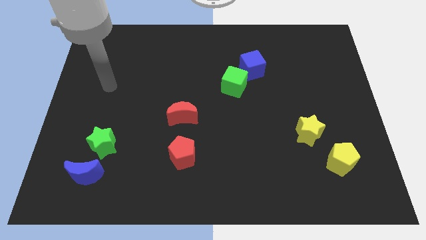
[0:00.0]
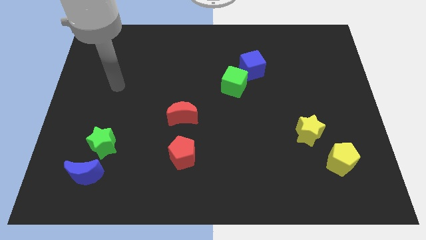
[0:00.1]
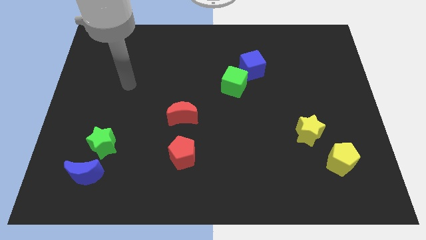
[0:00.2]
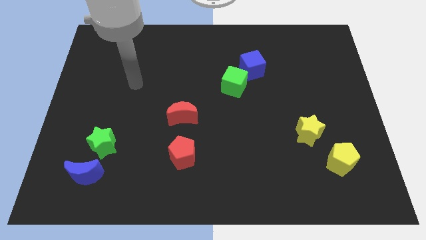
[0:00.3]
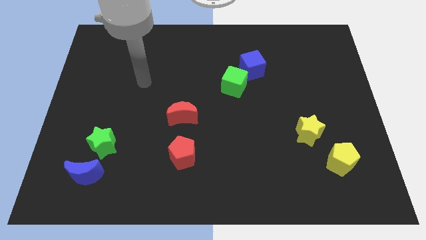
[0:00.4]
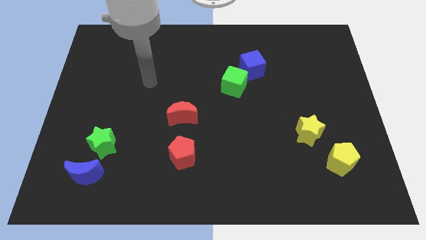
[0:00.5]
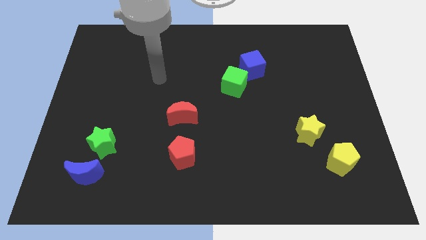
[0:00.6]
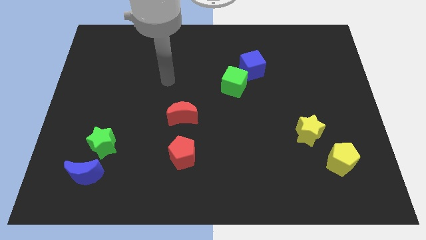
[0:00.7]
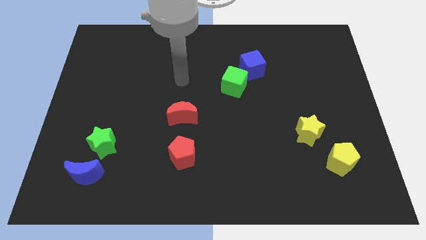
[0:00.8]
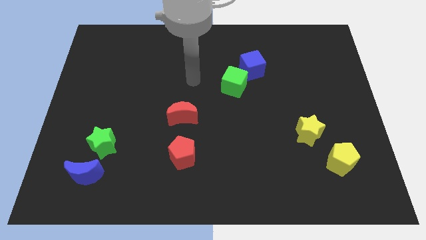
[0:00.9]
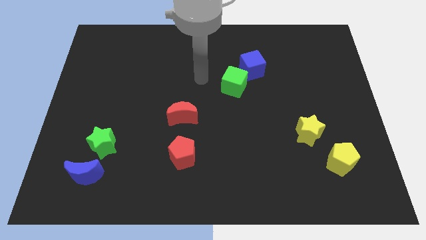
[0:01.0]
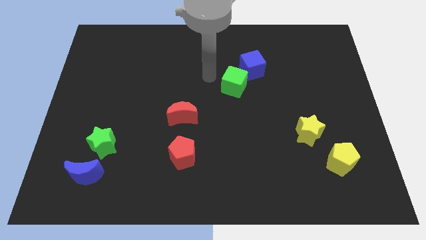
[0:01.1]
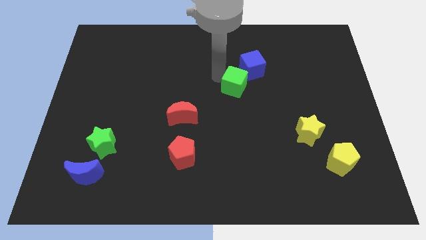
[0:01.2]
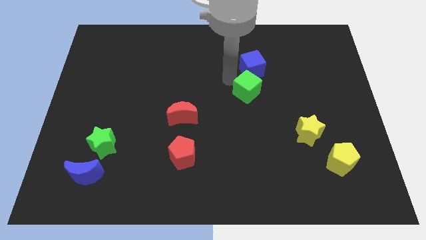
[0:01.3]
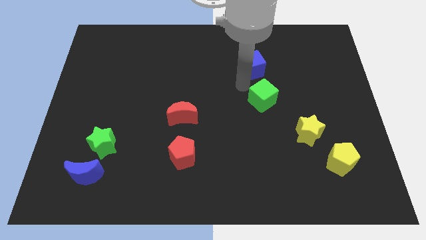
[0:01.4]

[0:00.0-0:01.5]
pull the blue cube apart from the green cube

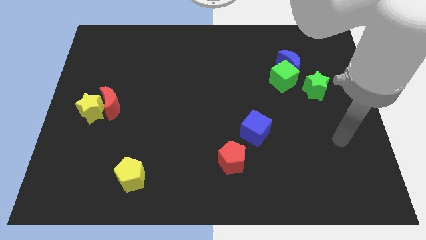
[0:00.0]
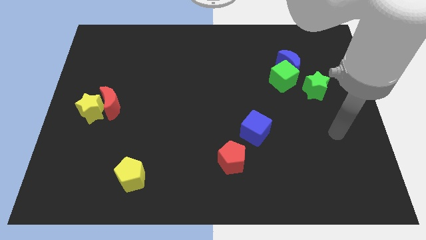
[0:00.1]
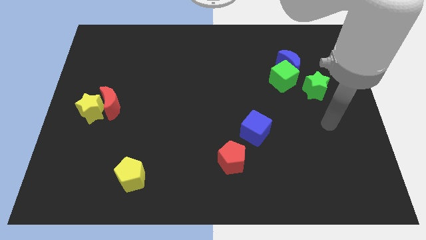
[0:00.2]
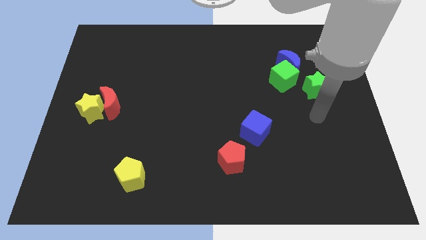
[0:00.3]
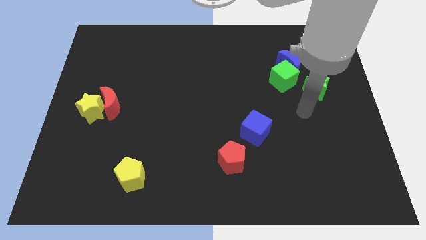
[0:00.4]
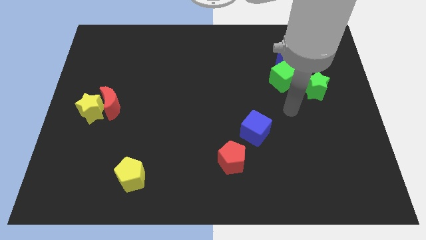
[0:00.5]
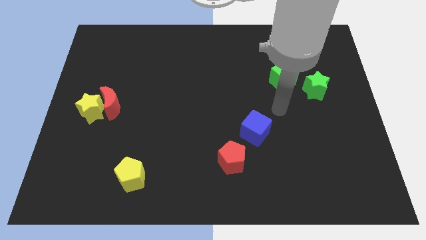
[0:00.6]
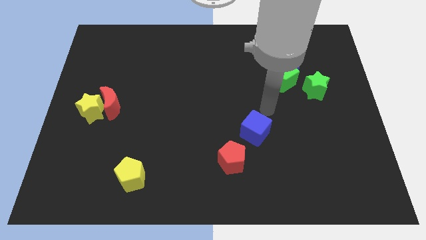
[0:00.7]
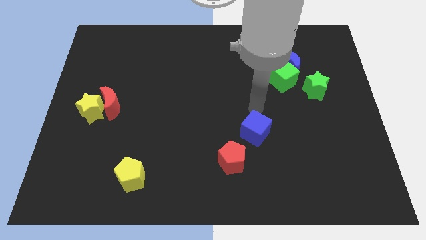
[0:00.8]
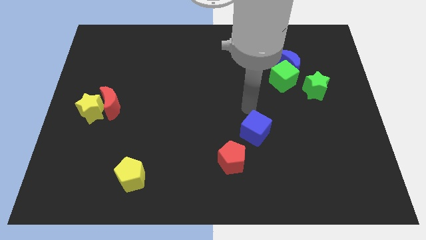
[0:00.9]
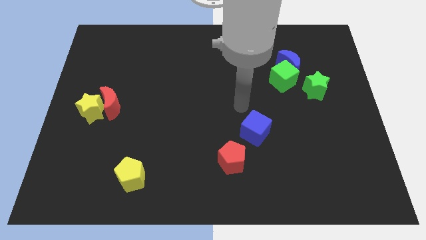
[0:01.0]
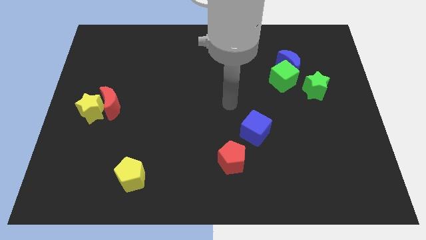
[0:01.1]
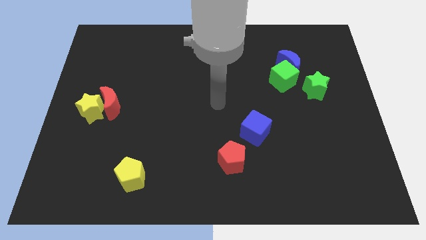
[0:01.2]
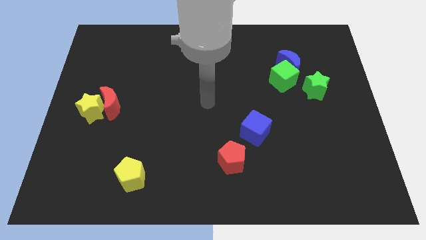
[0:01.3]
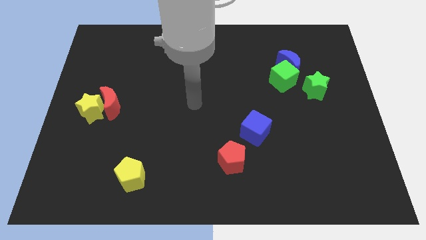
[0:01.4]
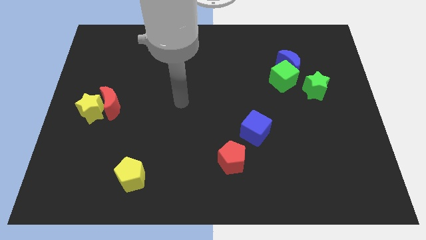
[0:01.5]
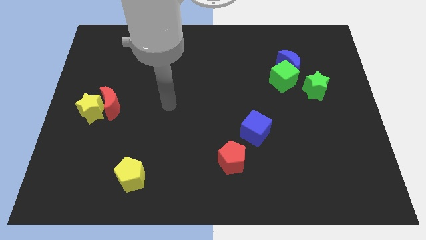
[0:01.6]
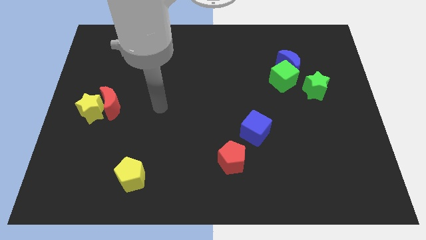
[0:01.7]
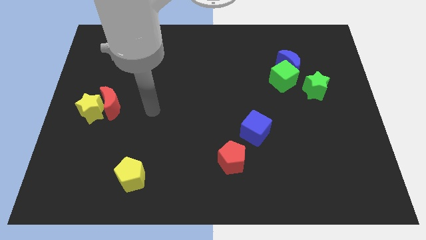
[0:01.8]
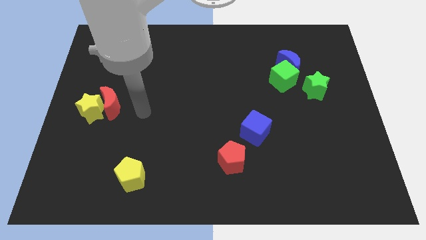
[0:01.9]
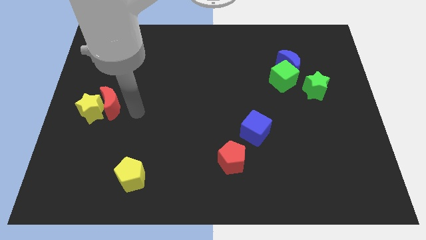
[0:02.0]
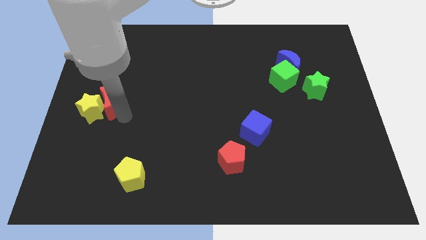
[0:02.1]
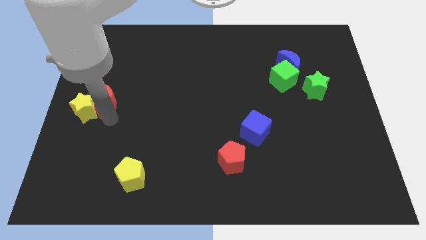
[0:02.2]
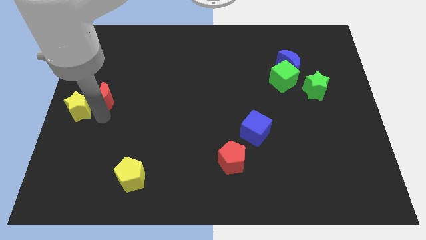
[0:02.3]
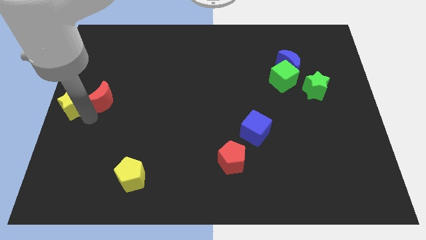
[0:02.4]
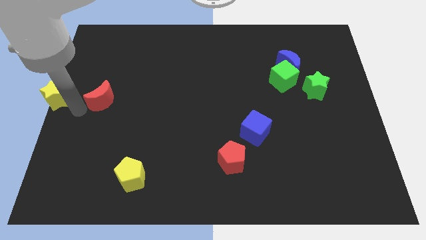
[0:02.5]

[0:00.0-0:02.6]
move the red moon away from the yellow star

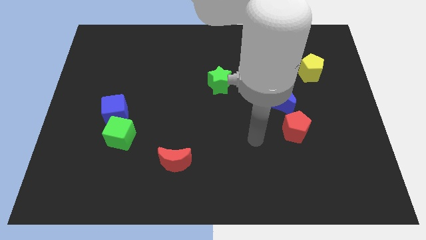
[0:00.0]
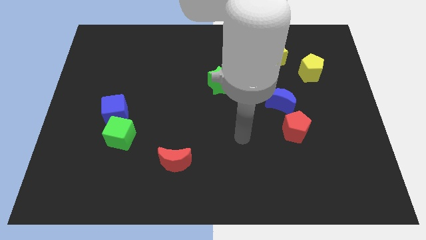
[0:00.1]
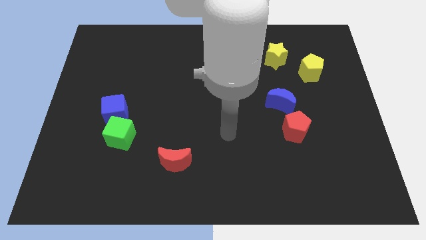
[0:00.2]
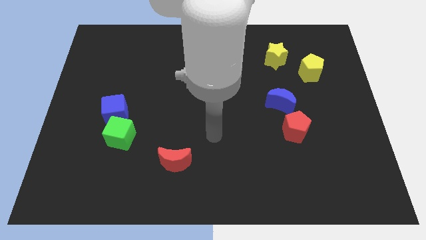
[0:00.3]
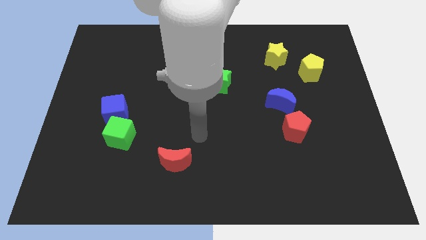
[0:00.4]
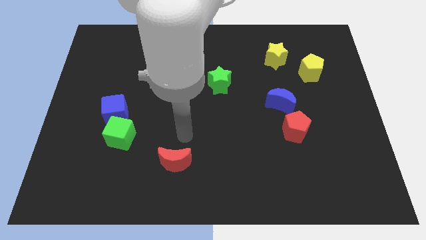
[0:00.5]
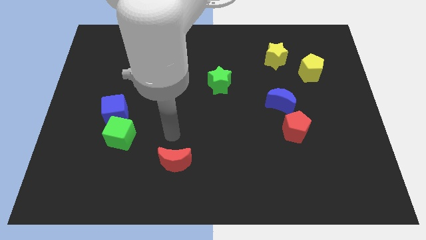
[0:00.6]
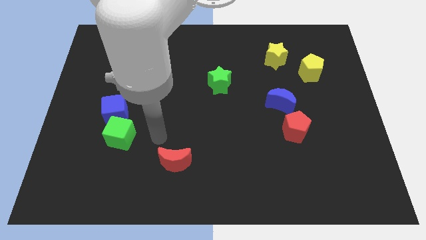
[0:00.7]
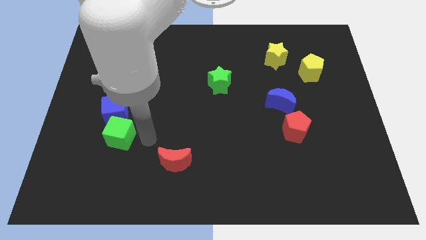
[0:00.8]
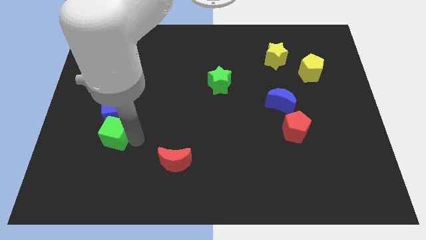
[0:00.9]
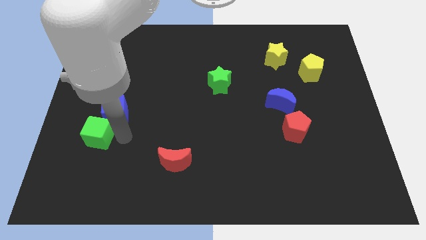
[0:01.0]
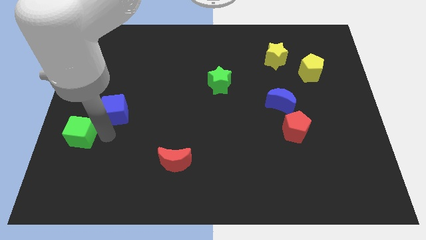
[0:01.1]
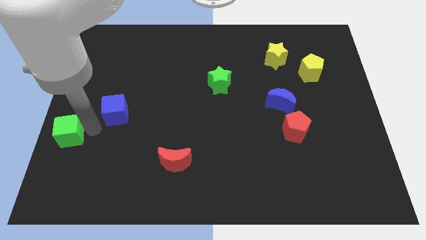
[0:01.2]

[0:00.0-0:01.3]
separate the blue cube from the green cube

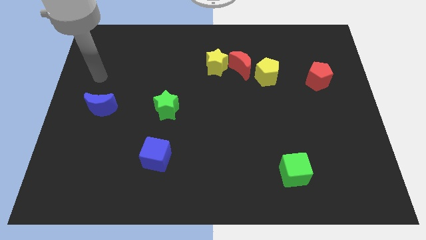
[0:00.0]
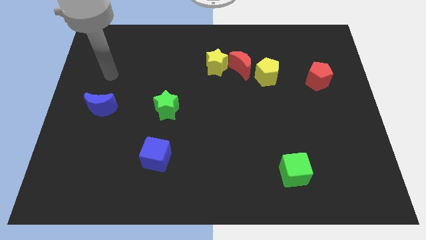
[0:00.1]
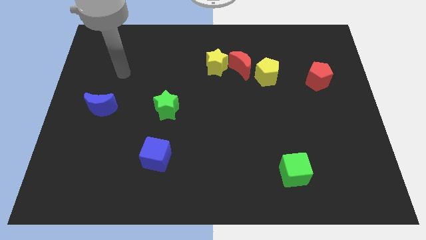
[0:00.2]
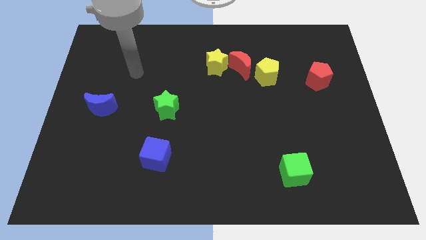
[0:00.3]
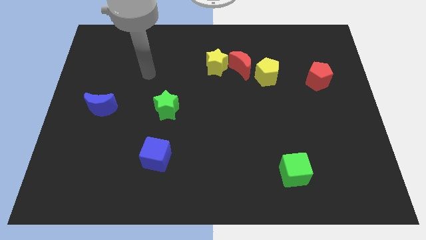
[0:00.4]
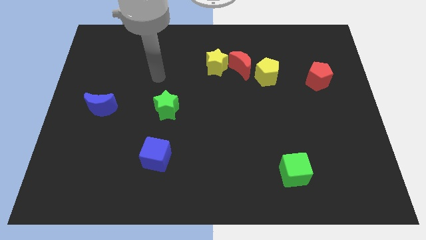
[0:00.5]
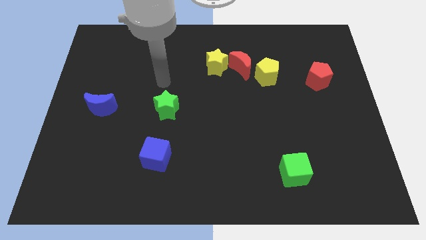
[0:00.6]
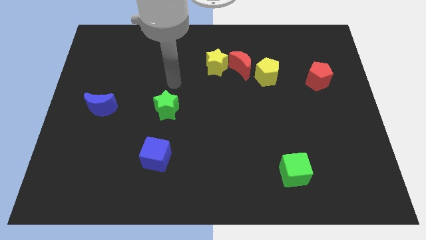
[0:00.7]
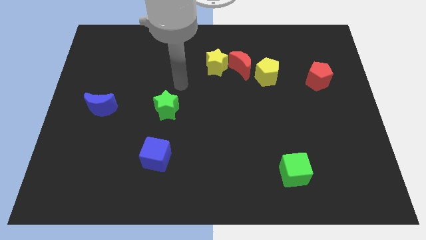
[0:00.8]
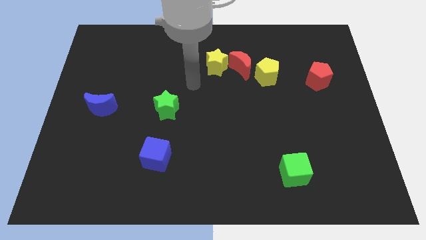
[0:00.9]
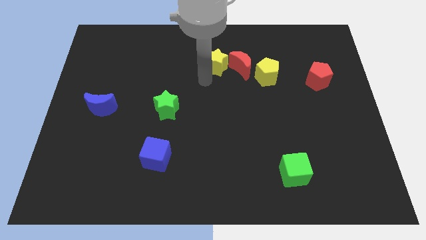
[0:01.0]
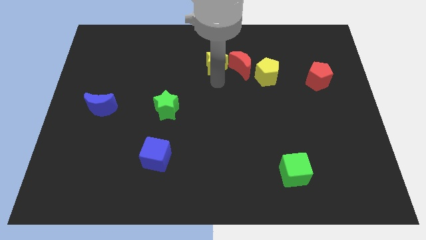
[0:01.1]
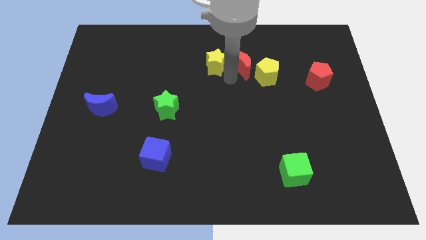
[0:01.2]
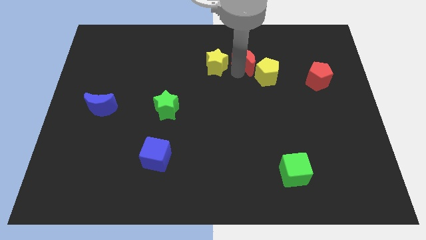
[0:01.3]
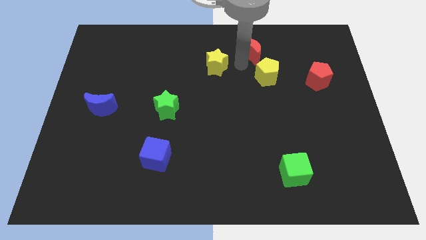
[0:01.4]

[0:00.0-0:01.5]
pull the yellow star apart from the red moon

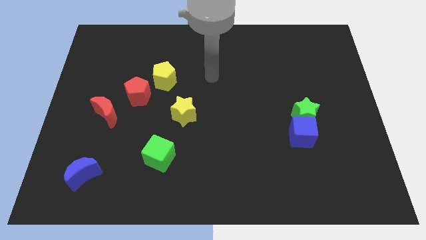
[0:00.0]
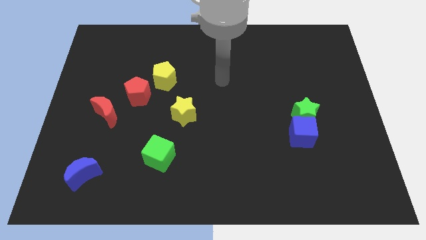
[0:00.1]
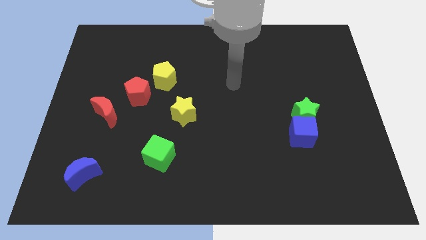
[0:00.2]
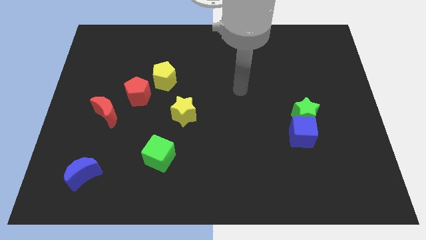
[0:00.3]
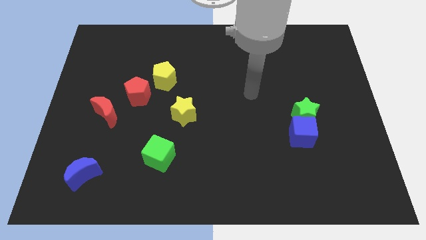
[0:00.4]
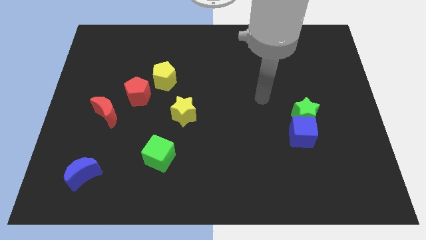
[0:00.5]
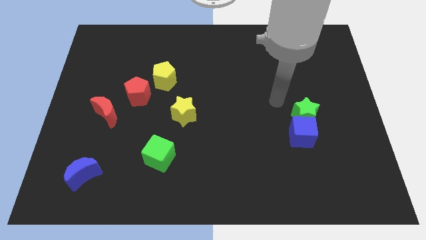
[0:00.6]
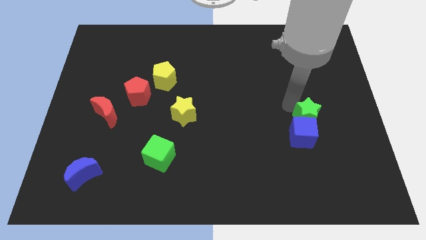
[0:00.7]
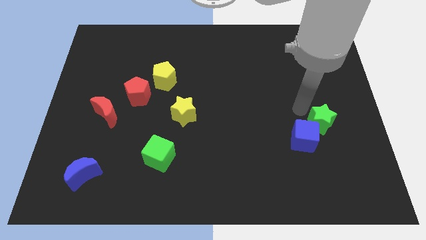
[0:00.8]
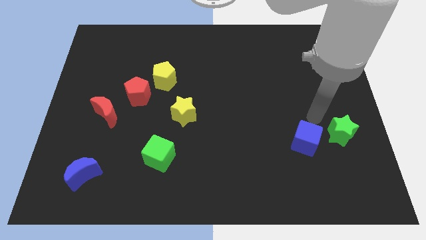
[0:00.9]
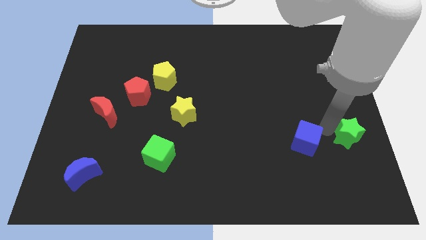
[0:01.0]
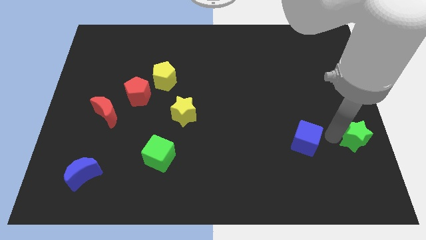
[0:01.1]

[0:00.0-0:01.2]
separate the blue cube from the green star

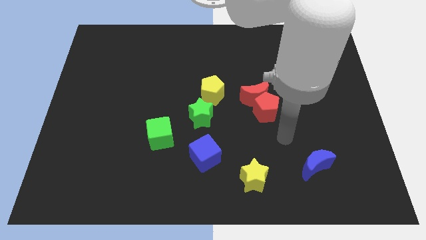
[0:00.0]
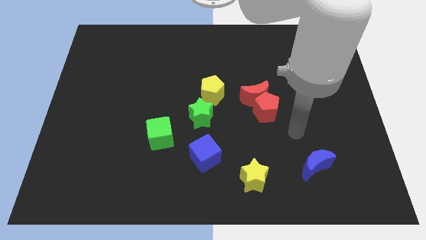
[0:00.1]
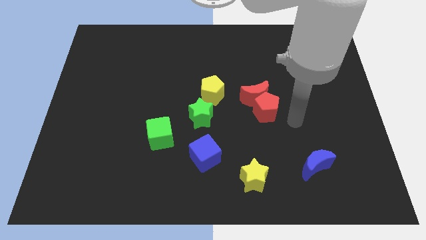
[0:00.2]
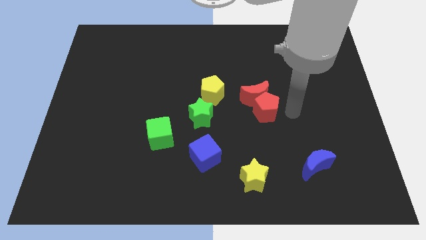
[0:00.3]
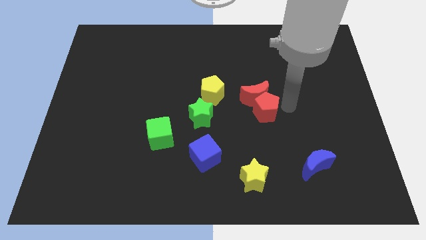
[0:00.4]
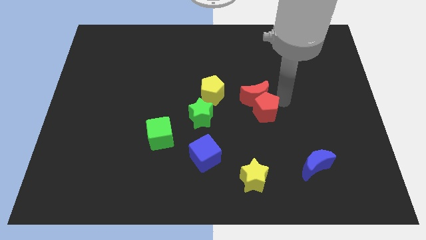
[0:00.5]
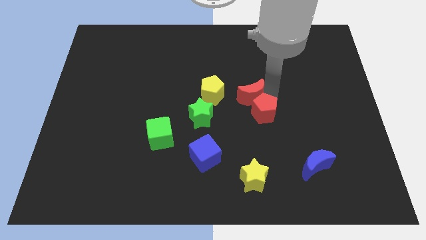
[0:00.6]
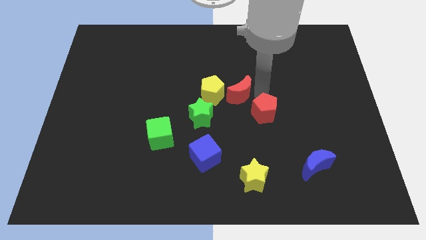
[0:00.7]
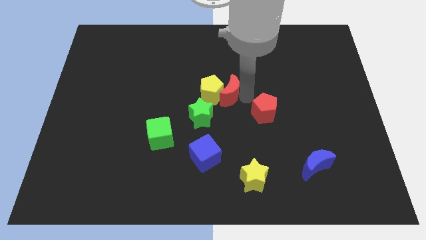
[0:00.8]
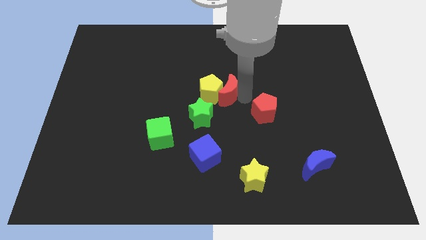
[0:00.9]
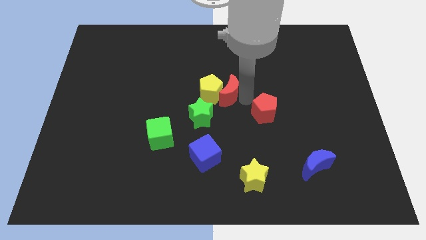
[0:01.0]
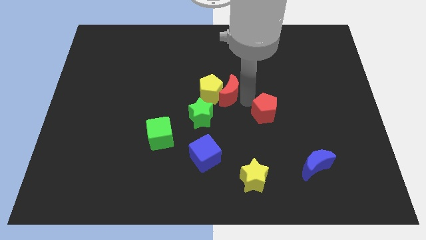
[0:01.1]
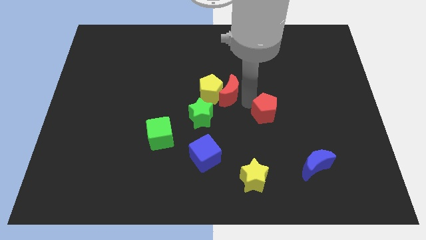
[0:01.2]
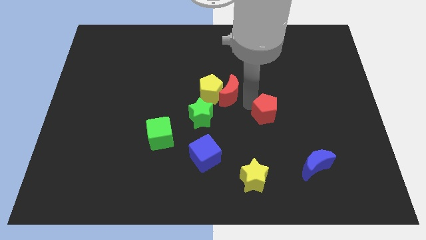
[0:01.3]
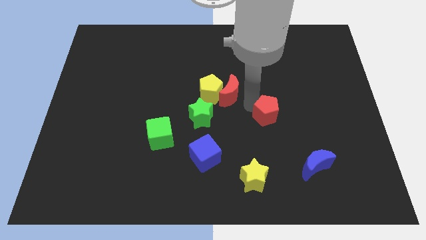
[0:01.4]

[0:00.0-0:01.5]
pull the red pentagon apart from the red moon
